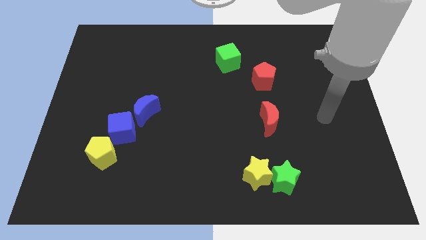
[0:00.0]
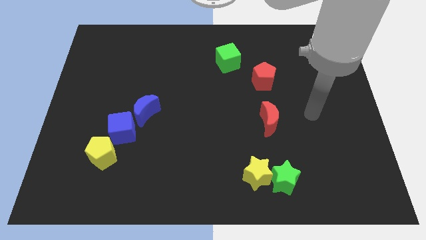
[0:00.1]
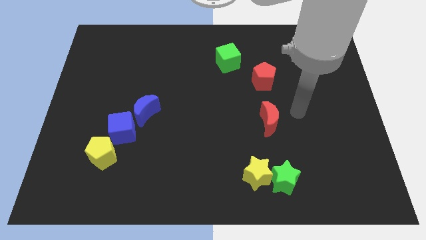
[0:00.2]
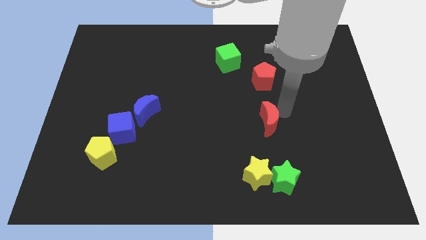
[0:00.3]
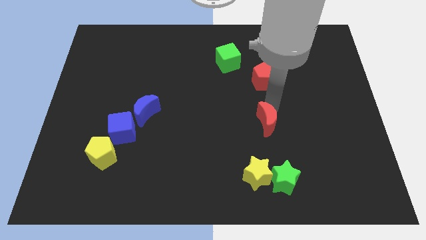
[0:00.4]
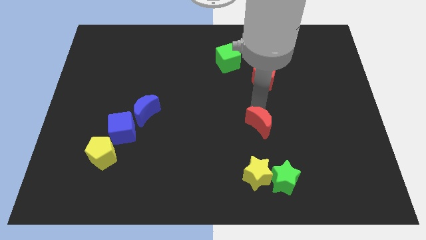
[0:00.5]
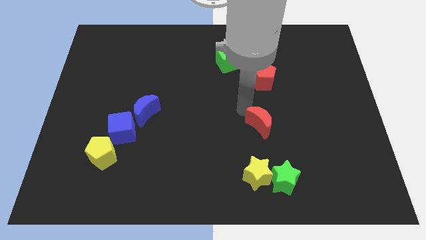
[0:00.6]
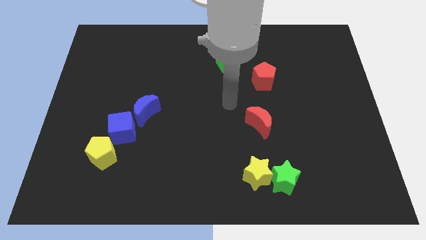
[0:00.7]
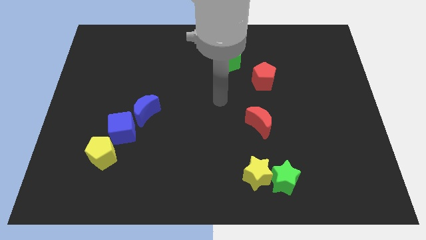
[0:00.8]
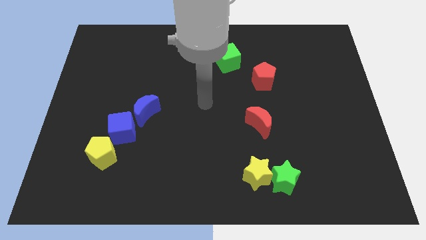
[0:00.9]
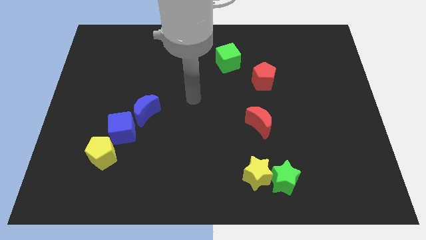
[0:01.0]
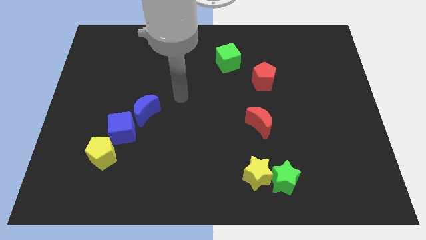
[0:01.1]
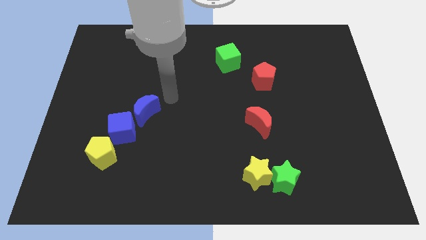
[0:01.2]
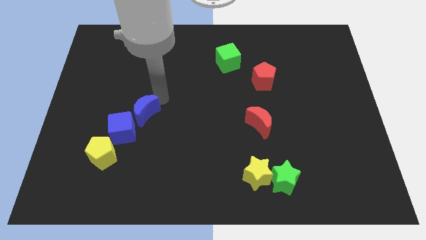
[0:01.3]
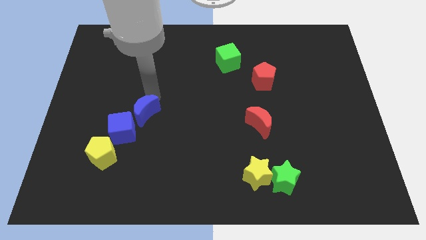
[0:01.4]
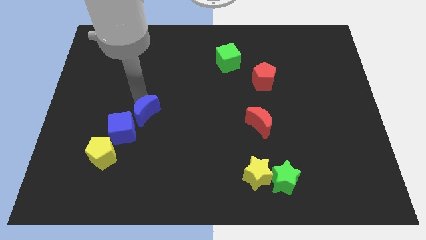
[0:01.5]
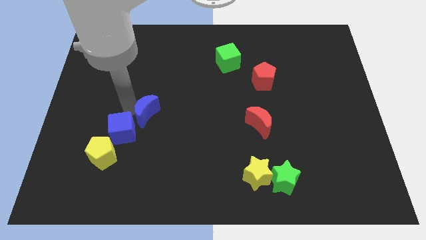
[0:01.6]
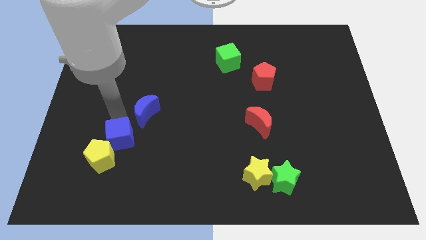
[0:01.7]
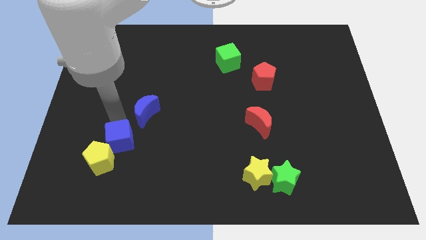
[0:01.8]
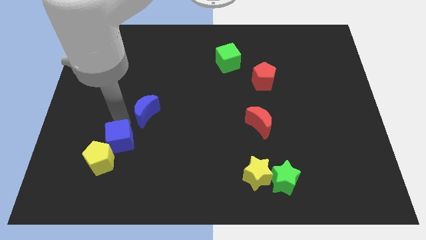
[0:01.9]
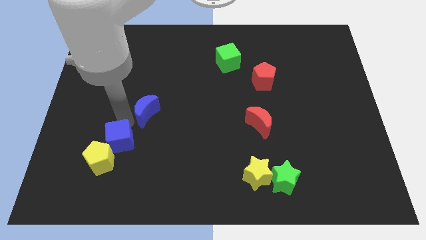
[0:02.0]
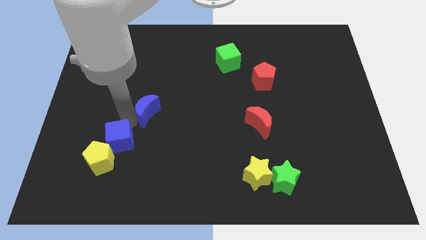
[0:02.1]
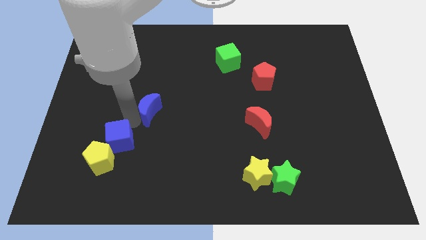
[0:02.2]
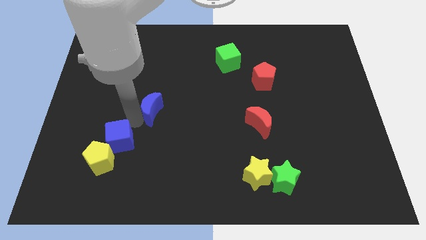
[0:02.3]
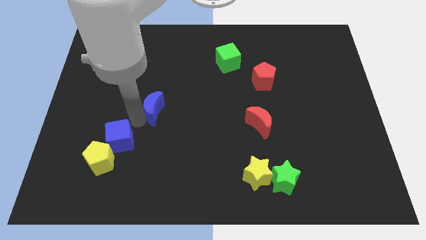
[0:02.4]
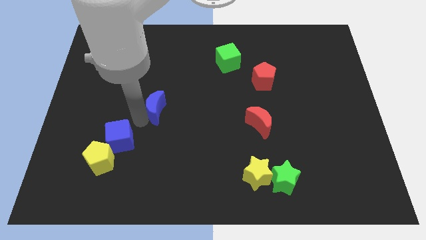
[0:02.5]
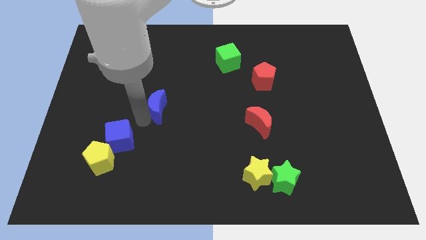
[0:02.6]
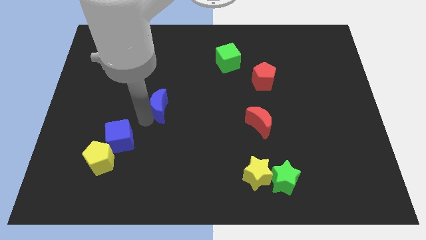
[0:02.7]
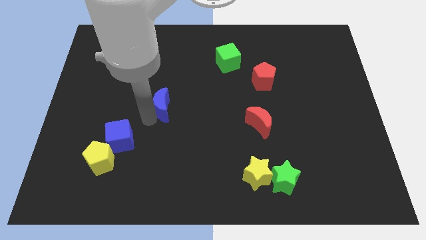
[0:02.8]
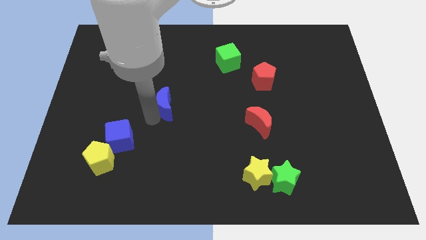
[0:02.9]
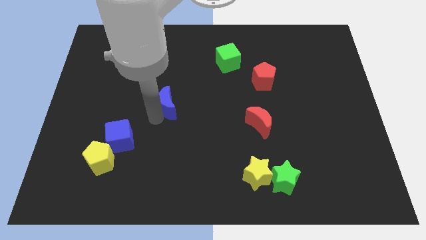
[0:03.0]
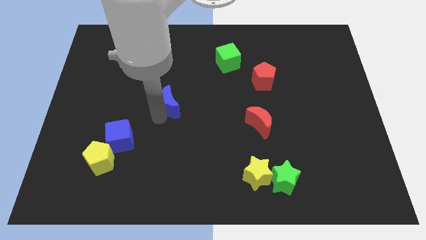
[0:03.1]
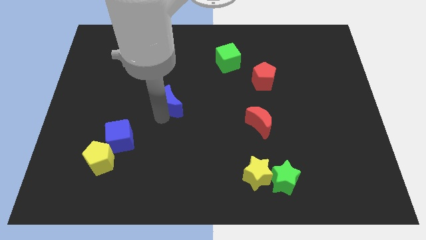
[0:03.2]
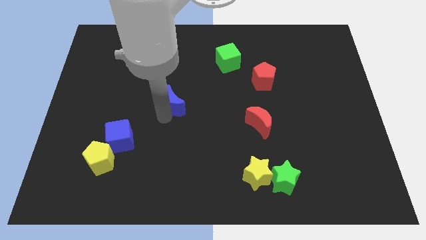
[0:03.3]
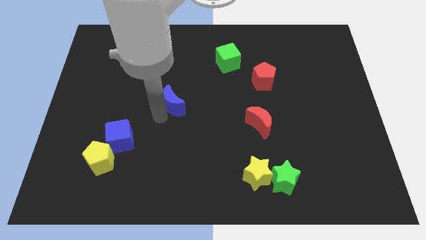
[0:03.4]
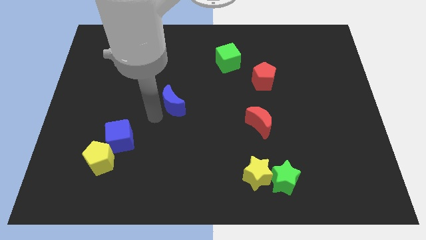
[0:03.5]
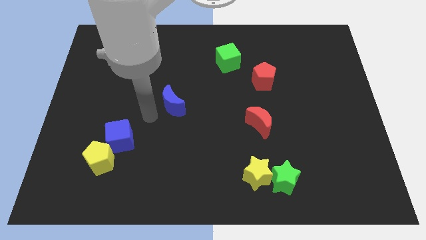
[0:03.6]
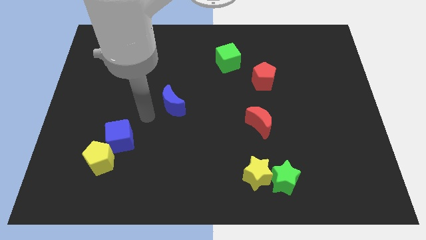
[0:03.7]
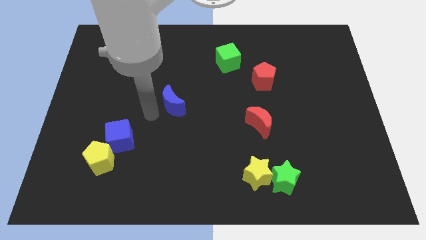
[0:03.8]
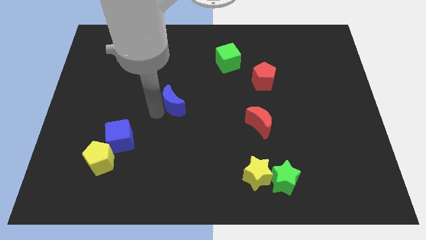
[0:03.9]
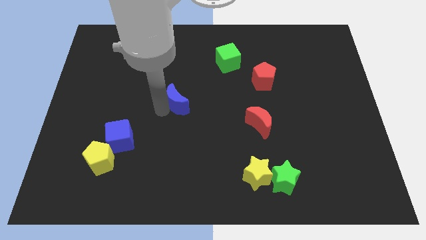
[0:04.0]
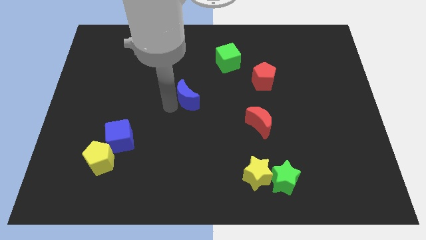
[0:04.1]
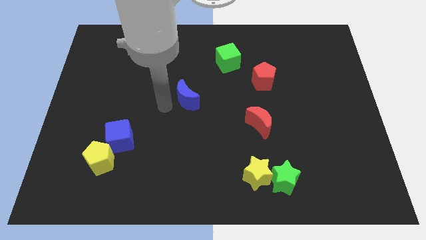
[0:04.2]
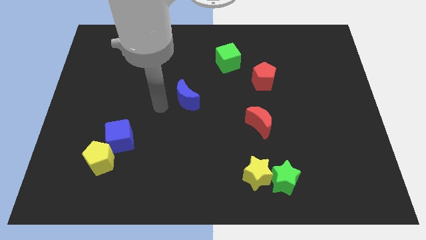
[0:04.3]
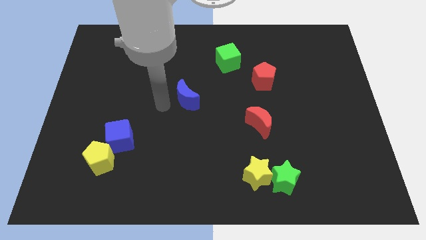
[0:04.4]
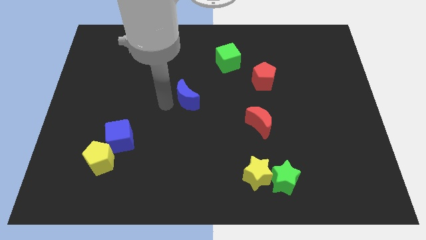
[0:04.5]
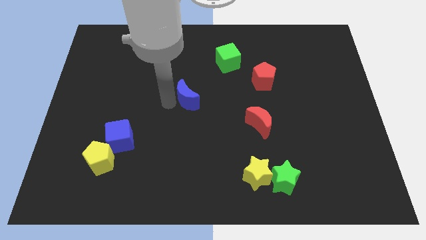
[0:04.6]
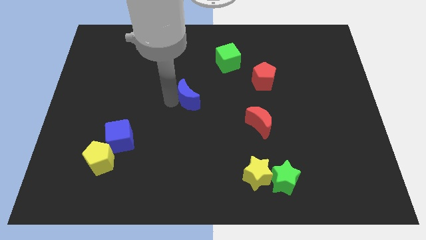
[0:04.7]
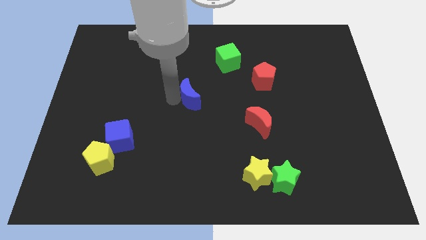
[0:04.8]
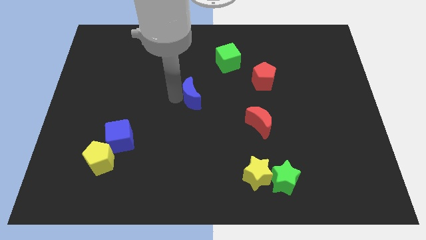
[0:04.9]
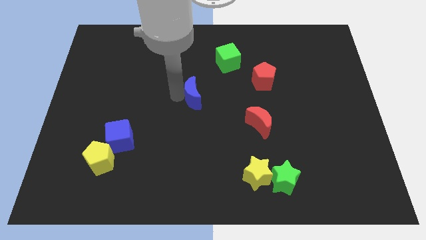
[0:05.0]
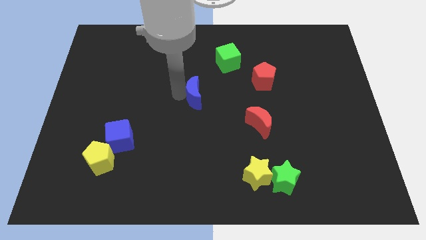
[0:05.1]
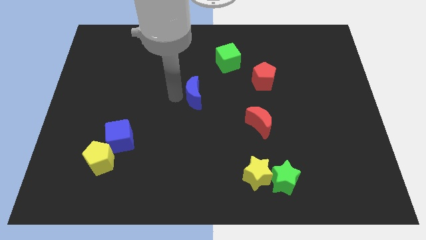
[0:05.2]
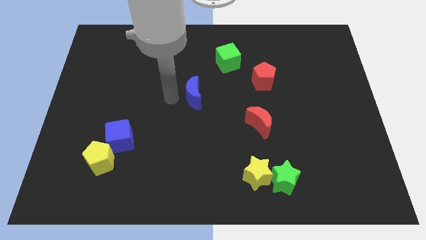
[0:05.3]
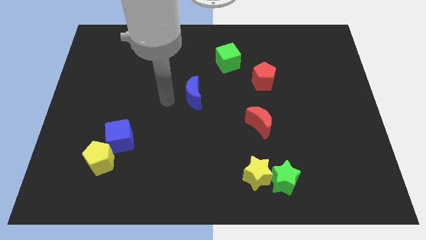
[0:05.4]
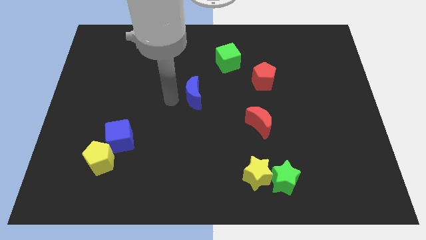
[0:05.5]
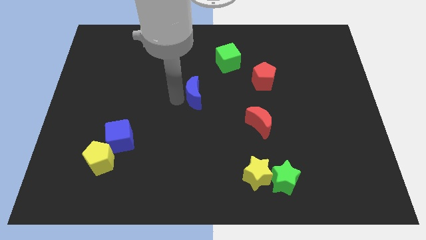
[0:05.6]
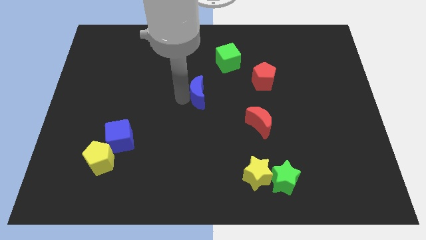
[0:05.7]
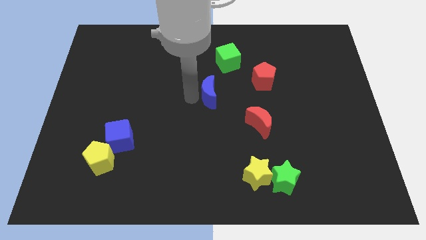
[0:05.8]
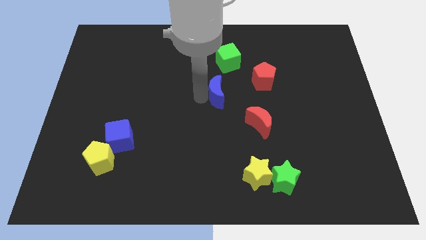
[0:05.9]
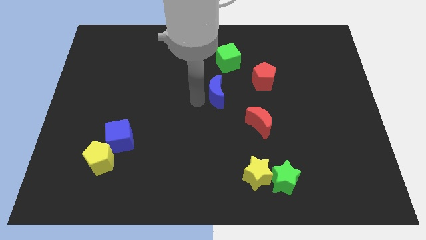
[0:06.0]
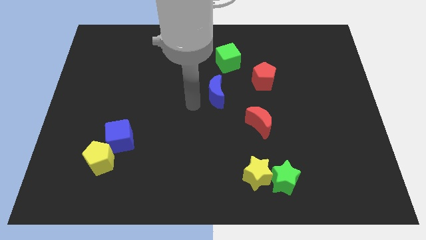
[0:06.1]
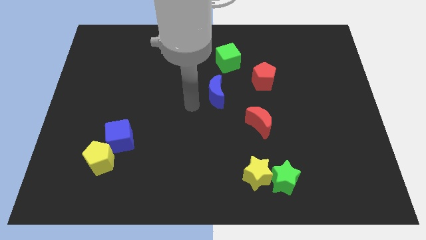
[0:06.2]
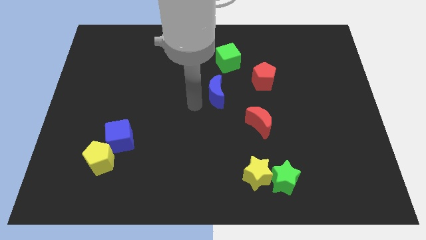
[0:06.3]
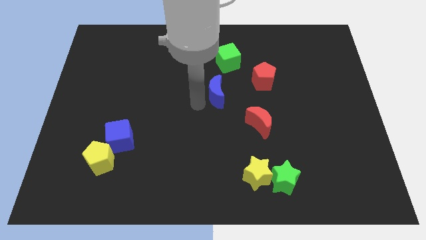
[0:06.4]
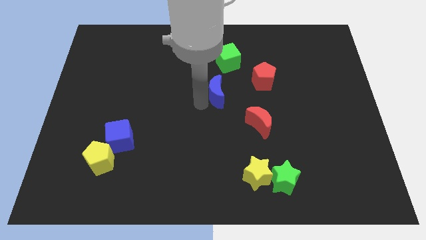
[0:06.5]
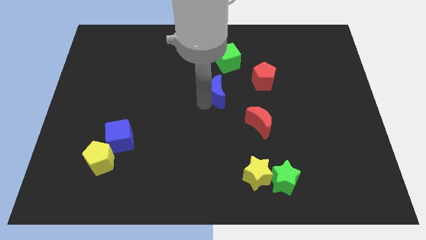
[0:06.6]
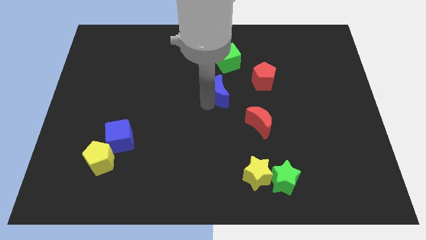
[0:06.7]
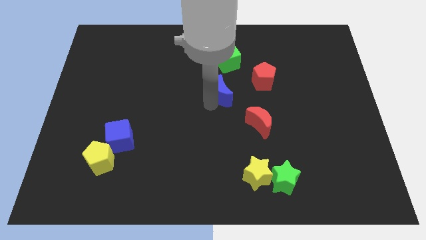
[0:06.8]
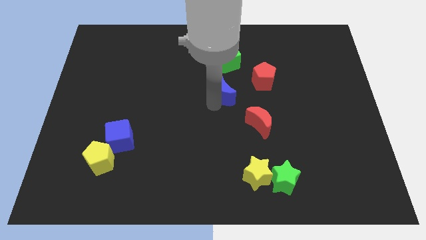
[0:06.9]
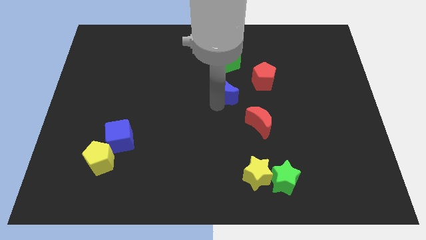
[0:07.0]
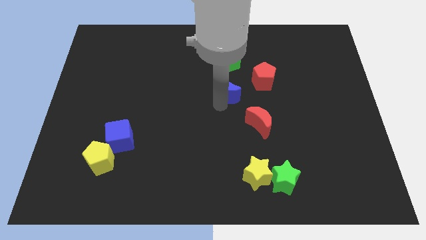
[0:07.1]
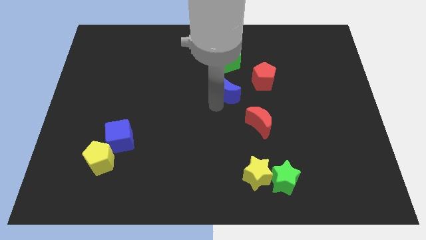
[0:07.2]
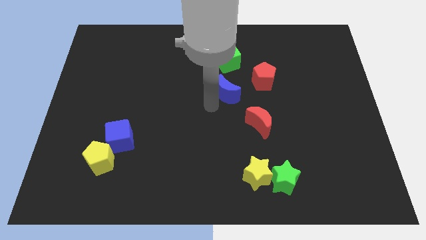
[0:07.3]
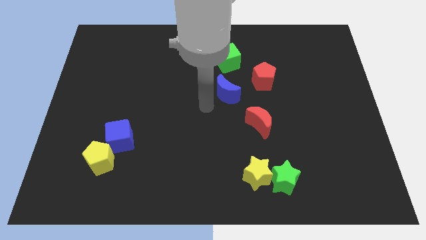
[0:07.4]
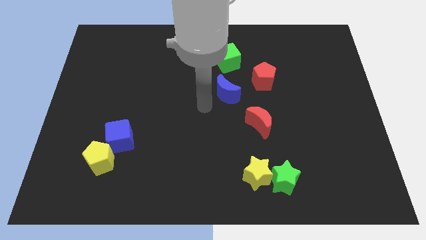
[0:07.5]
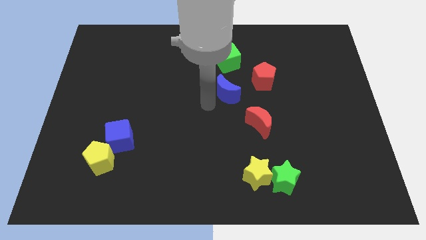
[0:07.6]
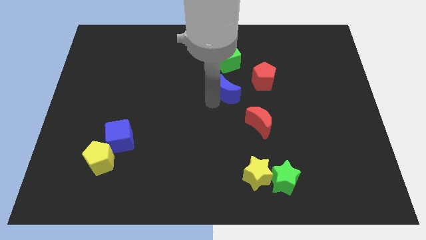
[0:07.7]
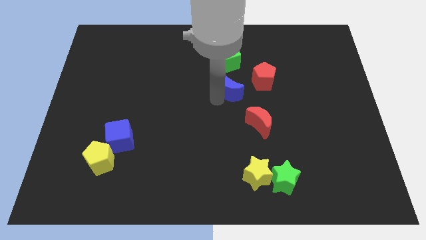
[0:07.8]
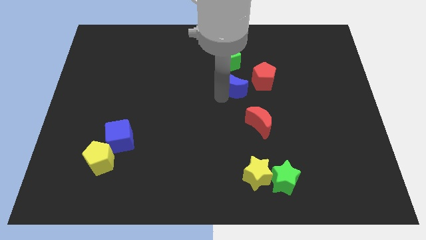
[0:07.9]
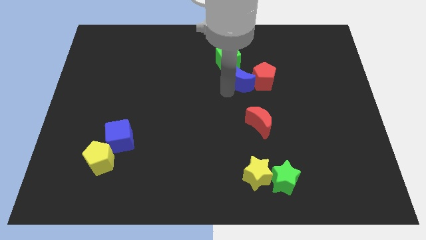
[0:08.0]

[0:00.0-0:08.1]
move the blue moon towards the red pentagon

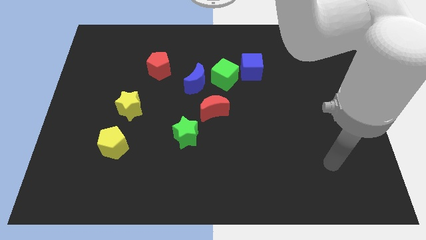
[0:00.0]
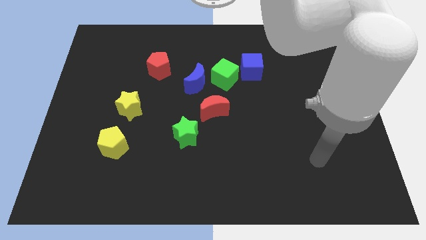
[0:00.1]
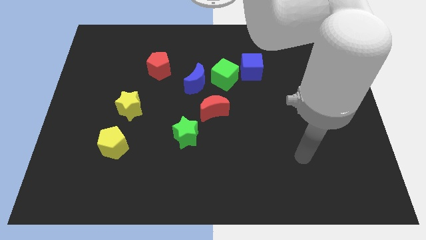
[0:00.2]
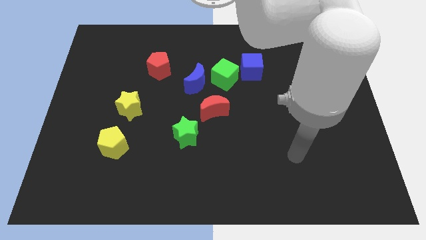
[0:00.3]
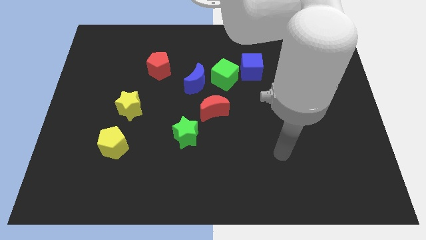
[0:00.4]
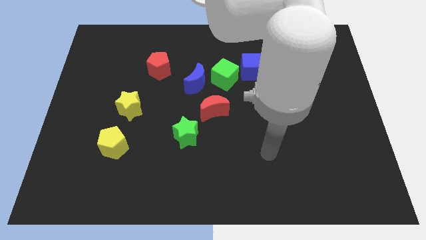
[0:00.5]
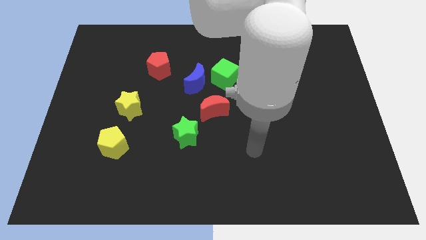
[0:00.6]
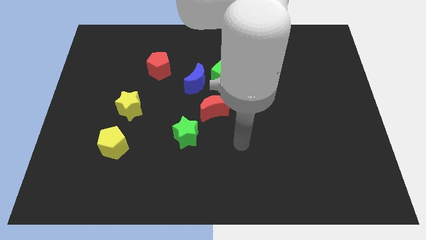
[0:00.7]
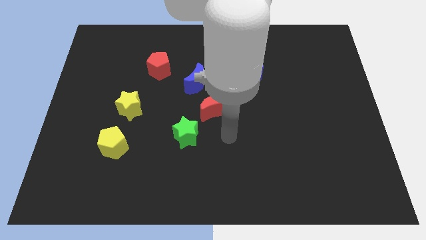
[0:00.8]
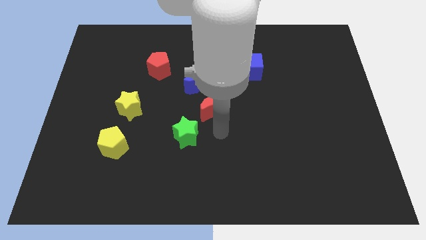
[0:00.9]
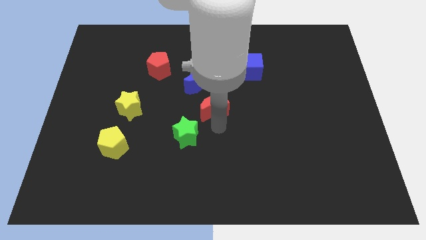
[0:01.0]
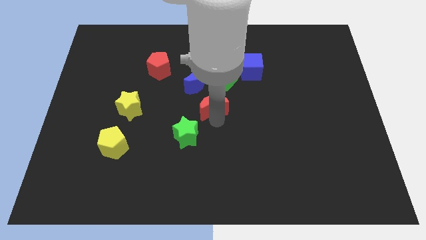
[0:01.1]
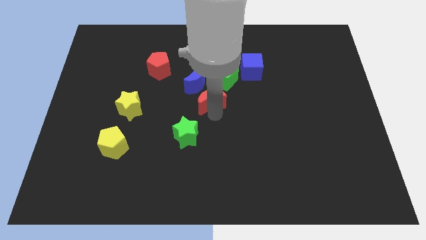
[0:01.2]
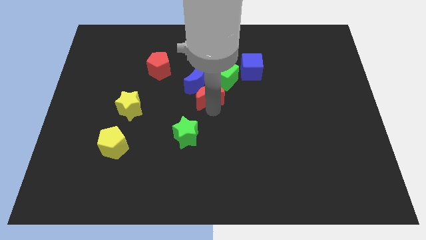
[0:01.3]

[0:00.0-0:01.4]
put the red moon next to the blue moon
